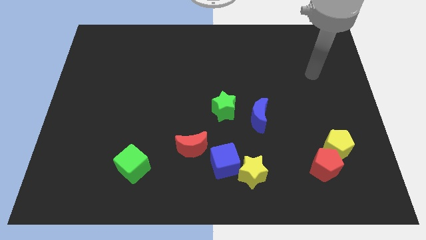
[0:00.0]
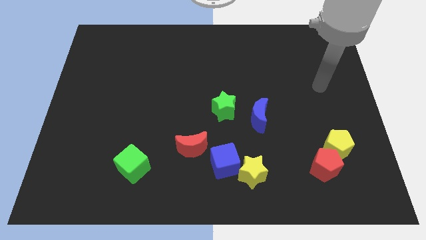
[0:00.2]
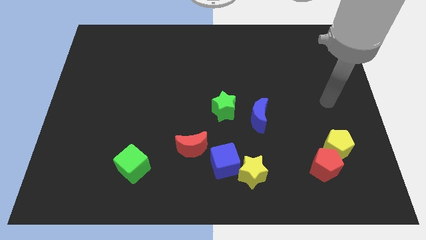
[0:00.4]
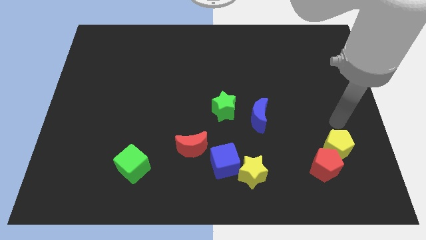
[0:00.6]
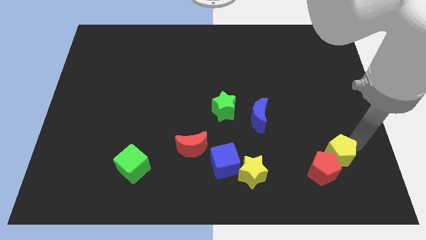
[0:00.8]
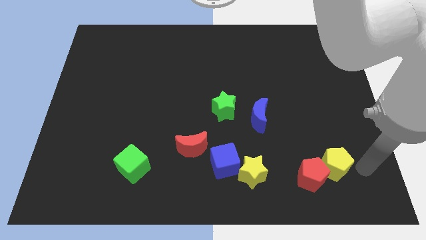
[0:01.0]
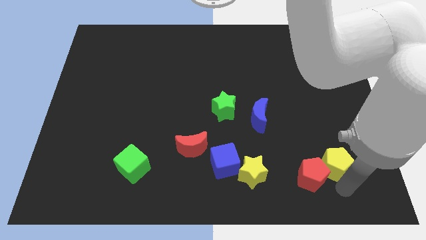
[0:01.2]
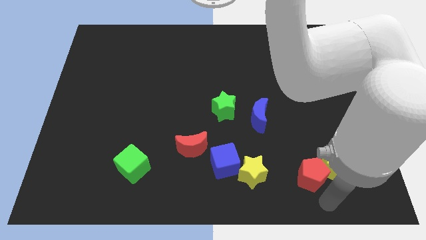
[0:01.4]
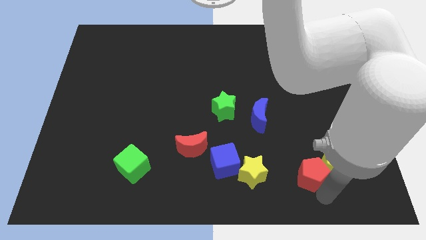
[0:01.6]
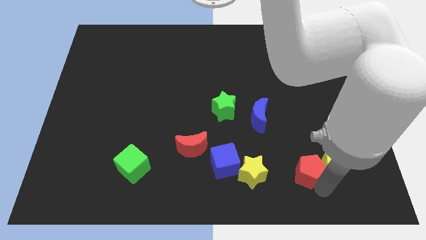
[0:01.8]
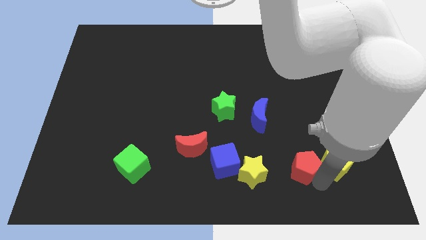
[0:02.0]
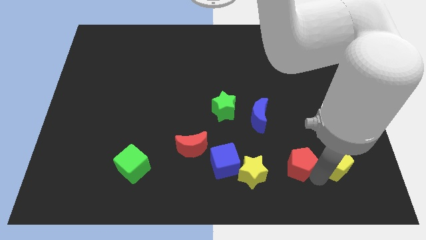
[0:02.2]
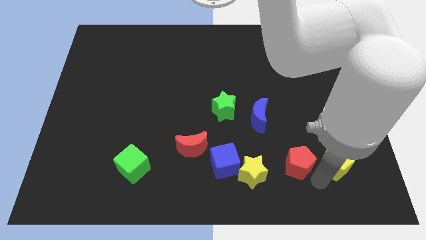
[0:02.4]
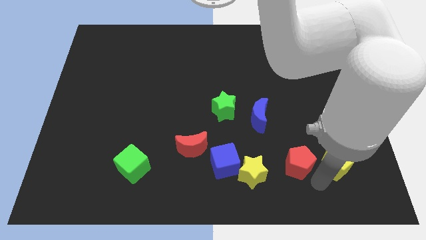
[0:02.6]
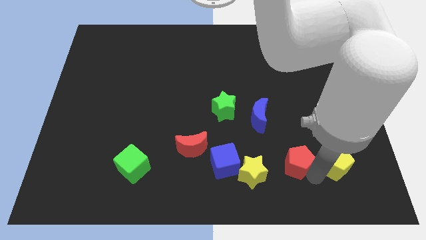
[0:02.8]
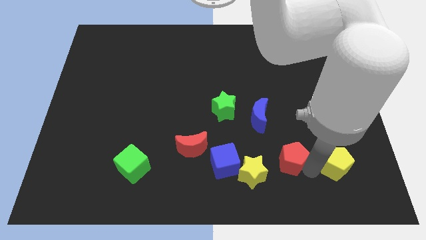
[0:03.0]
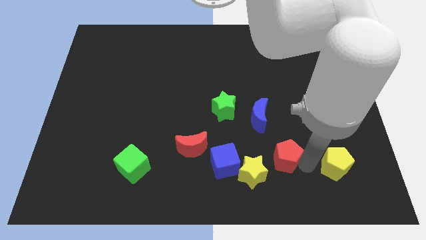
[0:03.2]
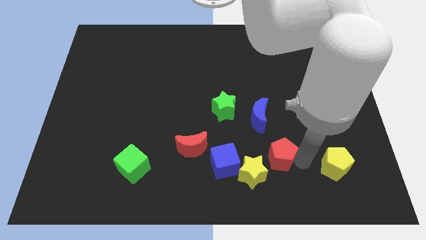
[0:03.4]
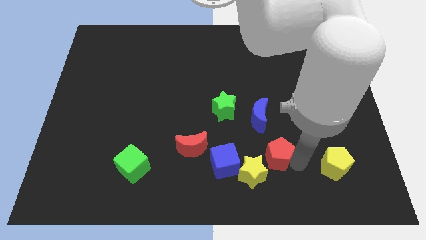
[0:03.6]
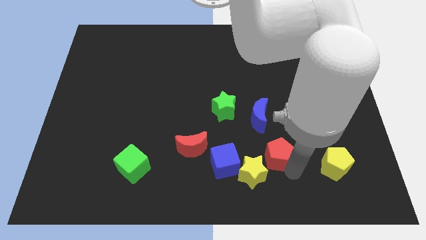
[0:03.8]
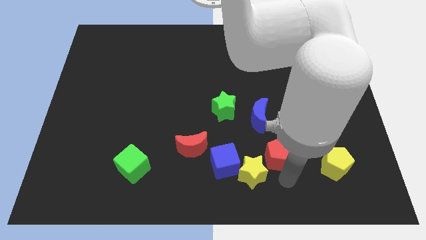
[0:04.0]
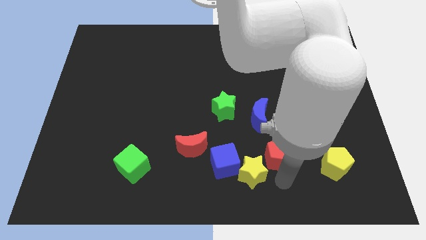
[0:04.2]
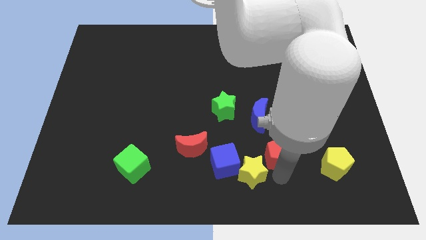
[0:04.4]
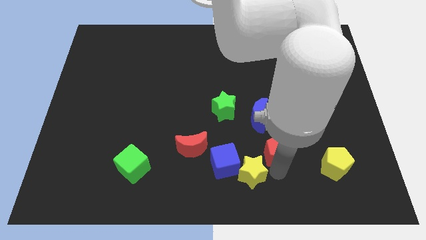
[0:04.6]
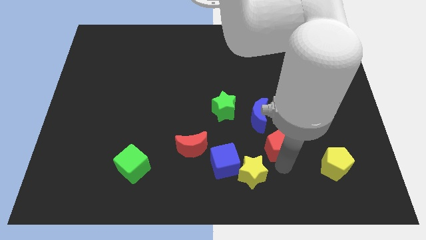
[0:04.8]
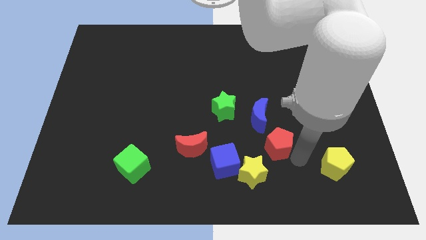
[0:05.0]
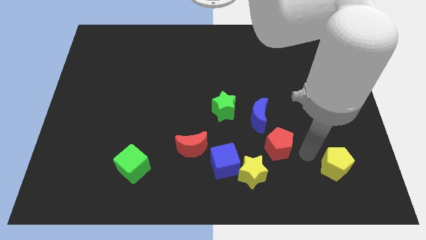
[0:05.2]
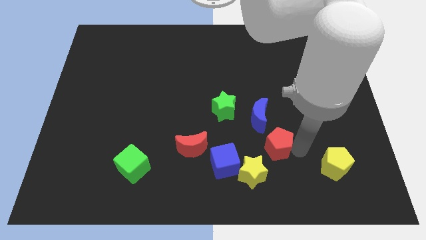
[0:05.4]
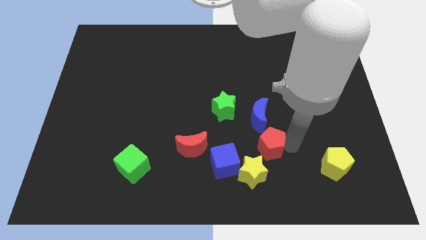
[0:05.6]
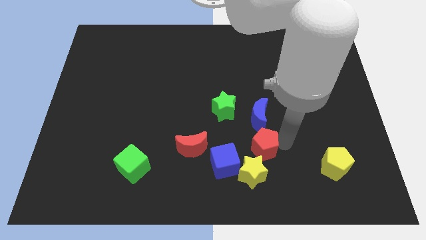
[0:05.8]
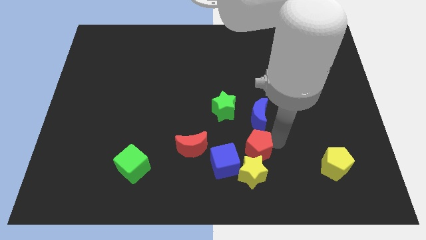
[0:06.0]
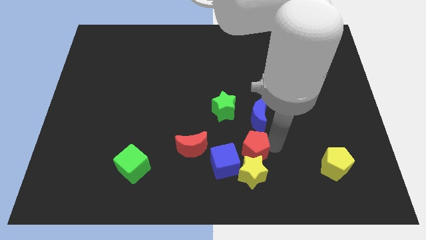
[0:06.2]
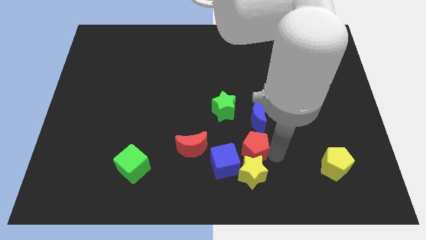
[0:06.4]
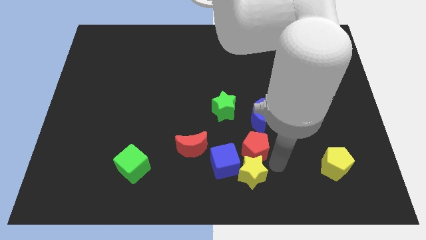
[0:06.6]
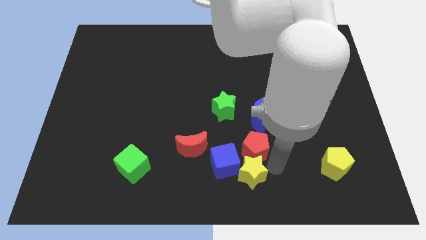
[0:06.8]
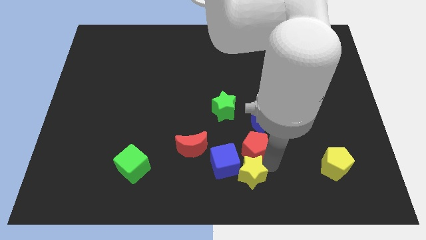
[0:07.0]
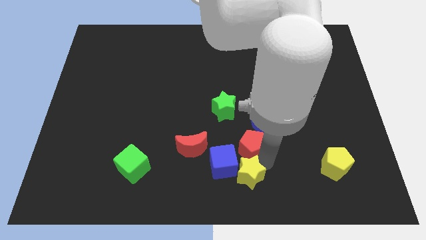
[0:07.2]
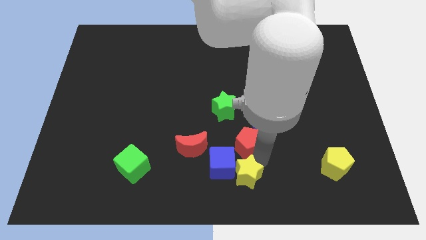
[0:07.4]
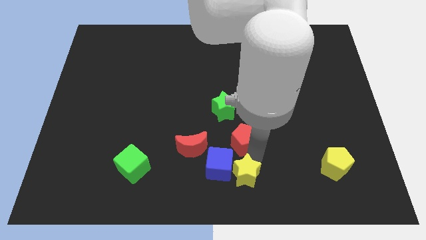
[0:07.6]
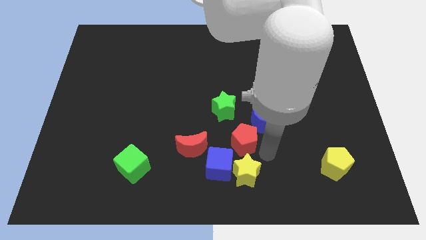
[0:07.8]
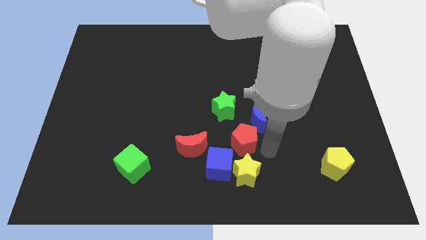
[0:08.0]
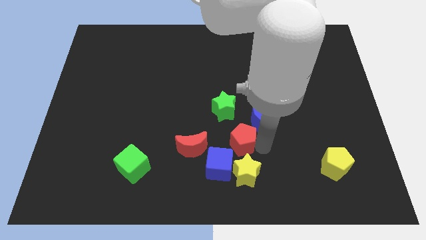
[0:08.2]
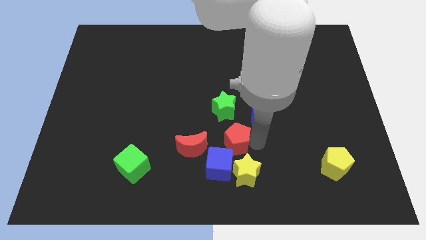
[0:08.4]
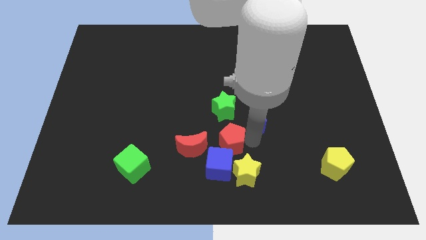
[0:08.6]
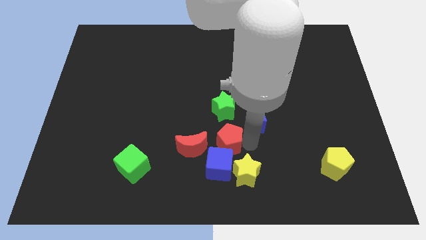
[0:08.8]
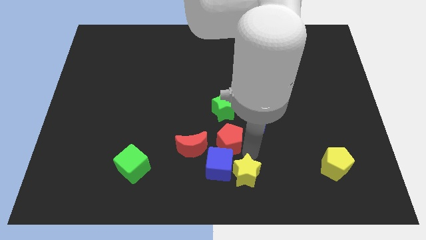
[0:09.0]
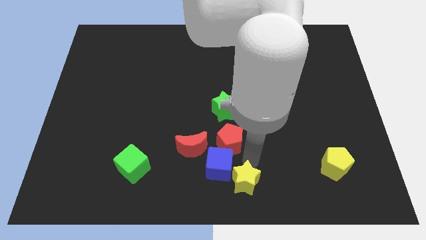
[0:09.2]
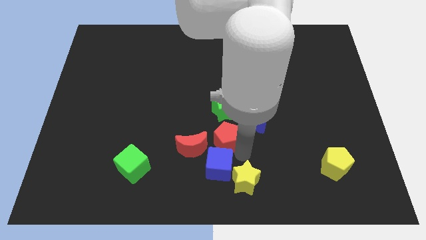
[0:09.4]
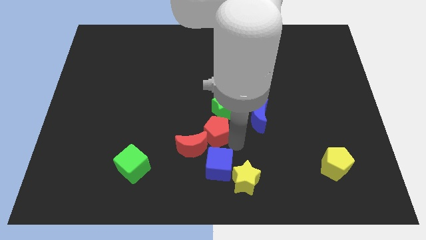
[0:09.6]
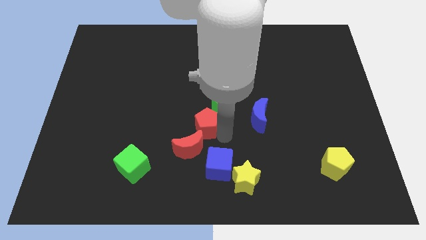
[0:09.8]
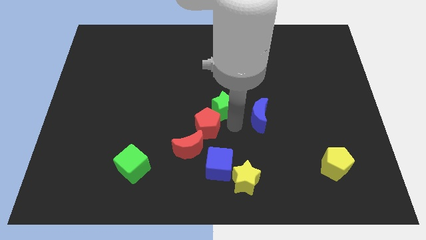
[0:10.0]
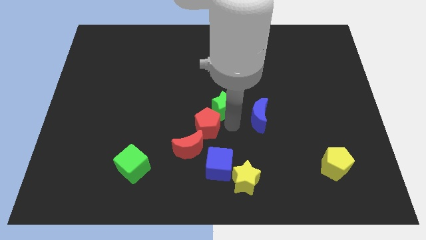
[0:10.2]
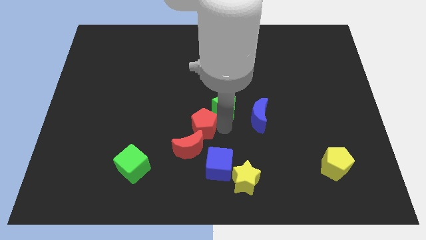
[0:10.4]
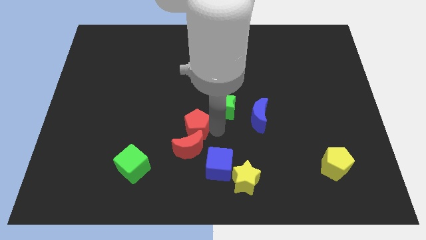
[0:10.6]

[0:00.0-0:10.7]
put the red pentagon diagonally up and to the left of the red moon
